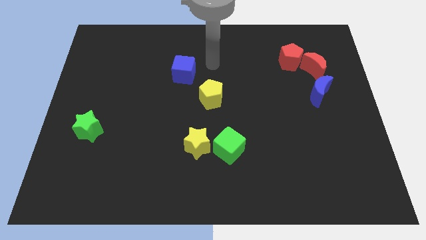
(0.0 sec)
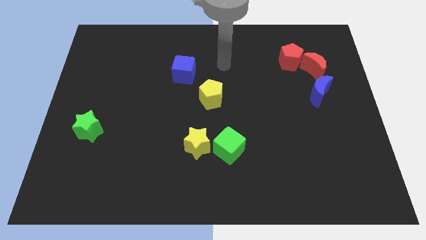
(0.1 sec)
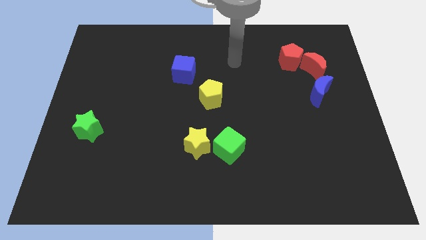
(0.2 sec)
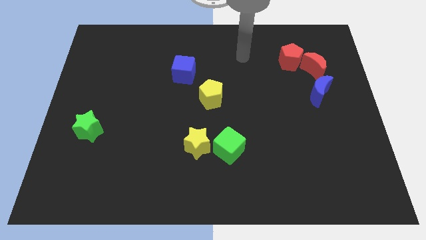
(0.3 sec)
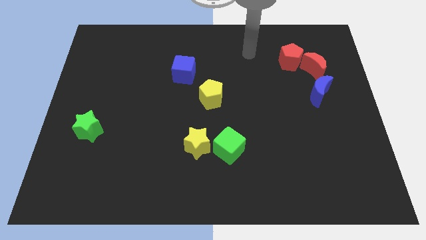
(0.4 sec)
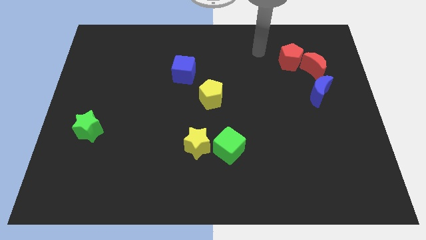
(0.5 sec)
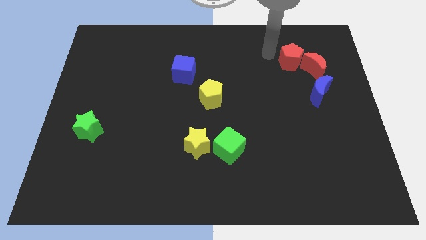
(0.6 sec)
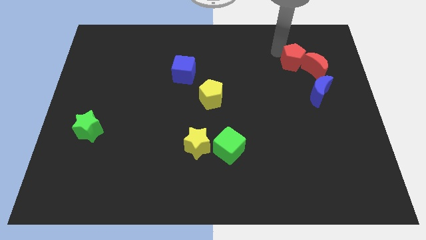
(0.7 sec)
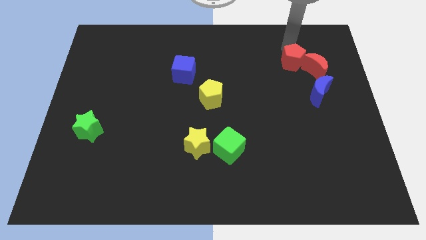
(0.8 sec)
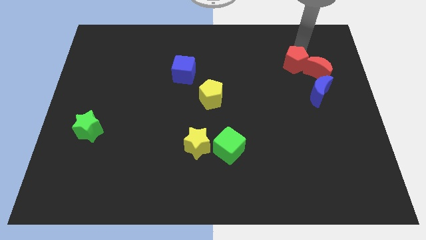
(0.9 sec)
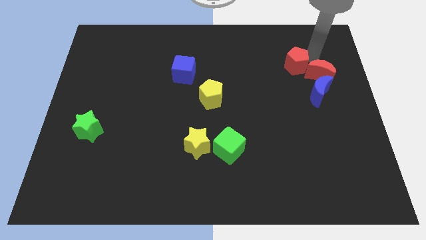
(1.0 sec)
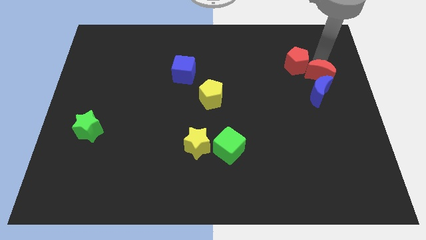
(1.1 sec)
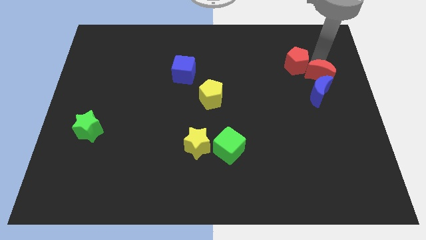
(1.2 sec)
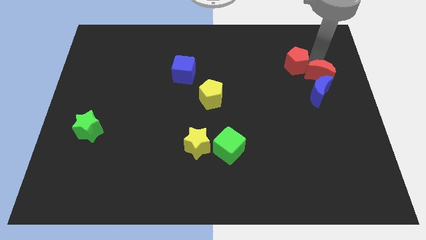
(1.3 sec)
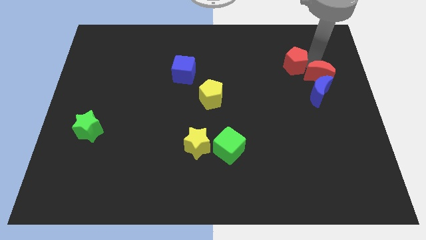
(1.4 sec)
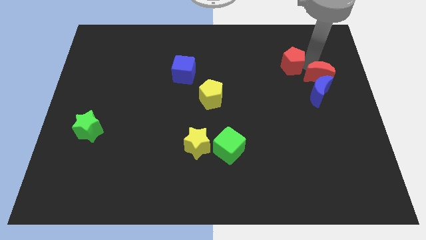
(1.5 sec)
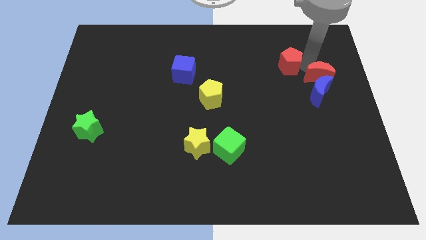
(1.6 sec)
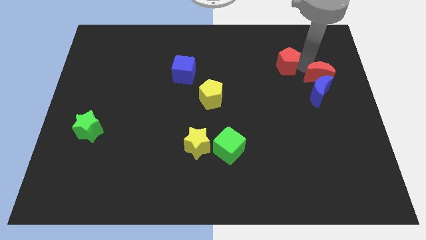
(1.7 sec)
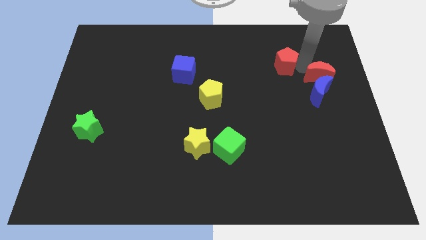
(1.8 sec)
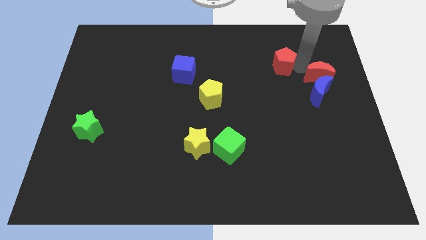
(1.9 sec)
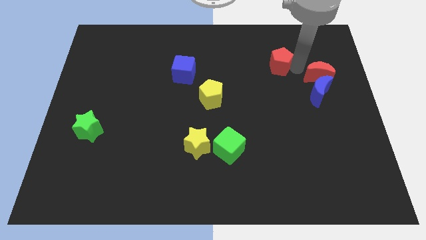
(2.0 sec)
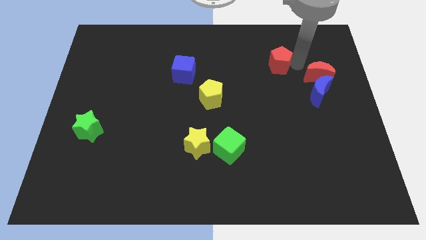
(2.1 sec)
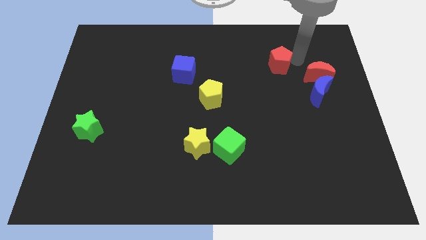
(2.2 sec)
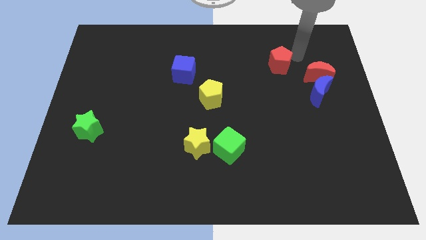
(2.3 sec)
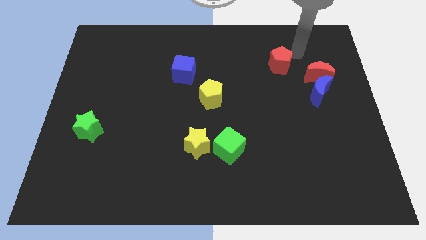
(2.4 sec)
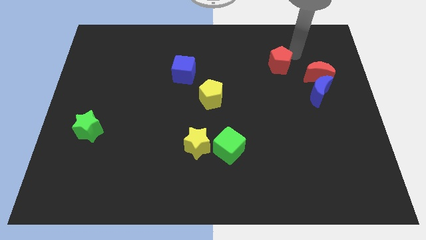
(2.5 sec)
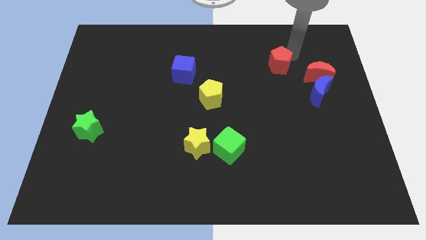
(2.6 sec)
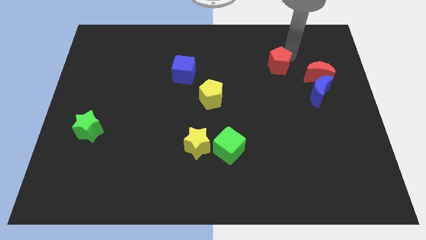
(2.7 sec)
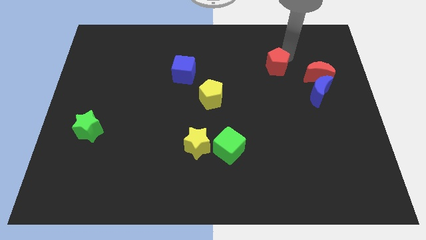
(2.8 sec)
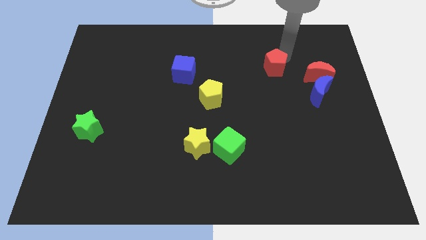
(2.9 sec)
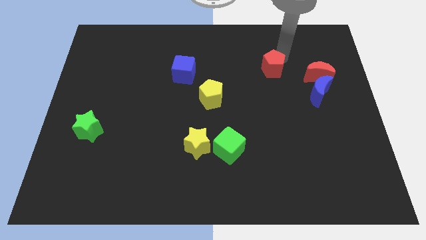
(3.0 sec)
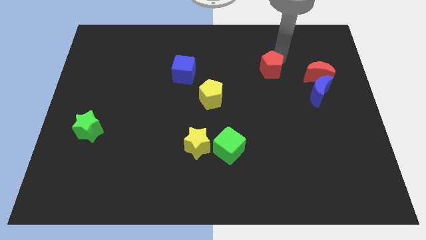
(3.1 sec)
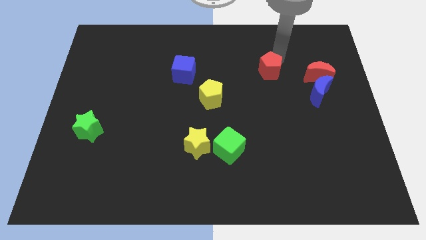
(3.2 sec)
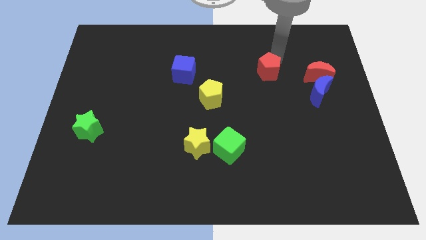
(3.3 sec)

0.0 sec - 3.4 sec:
slightly push the red pentagon down and to the left diagonally

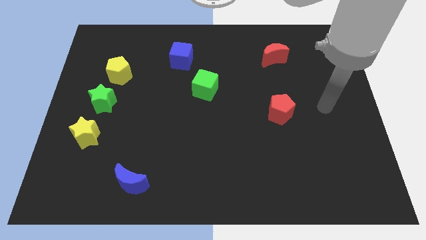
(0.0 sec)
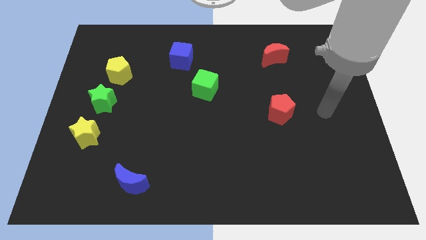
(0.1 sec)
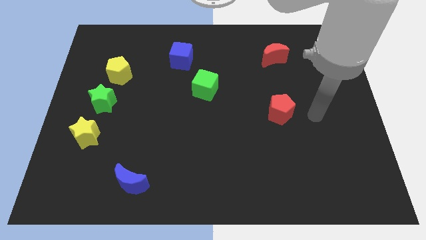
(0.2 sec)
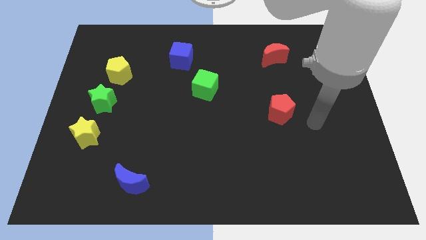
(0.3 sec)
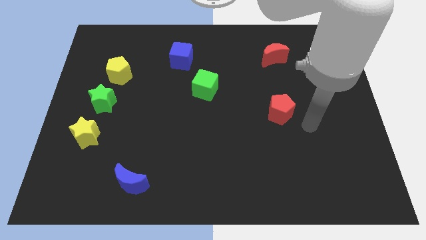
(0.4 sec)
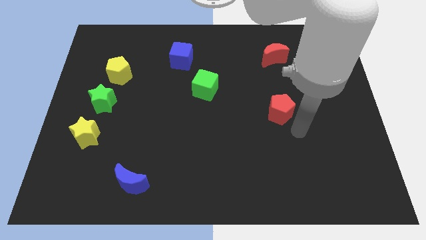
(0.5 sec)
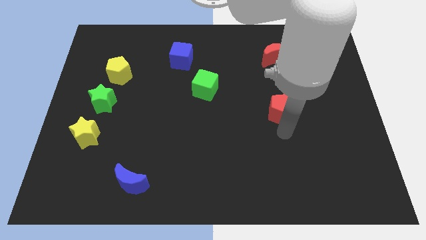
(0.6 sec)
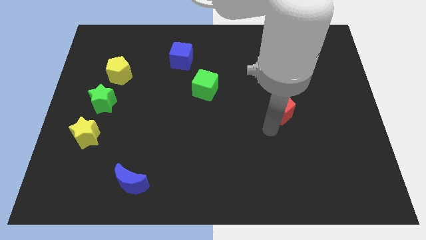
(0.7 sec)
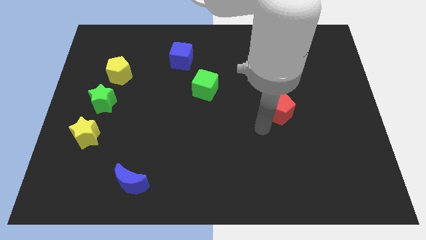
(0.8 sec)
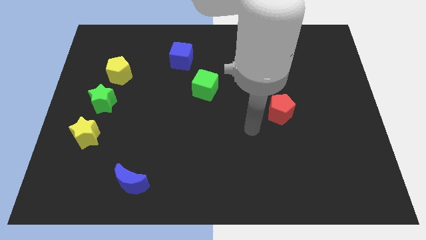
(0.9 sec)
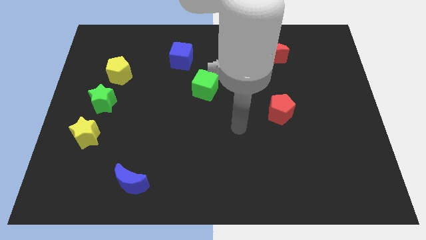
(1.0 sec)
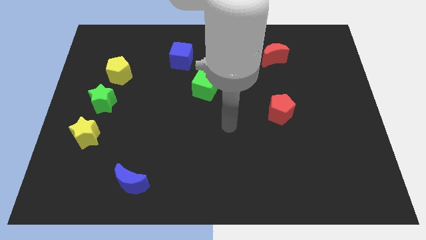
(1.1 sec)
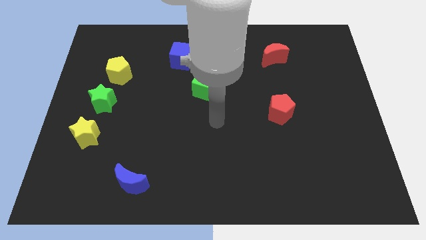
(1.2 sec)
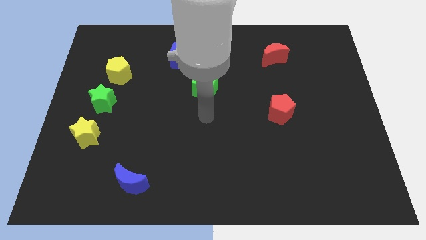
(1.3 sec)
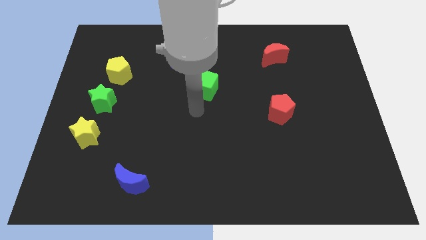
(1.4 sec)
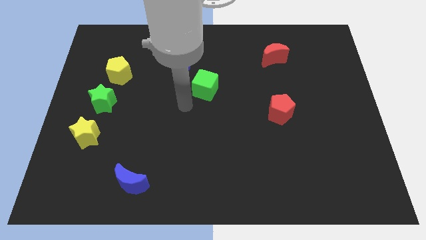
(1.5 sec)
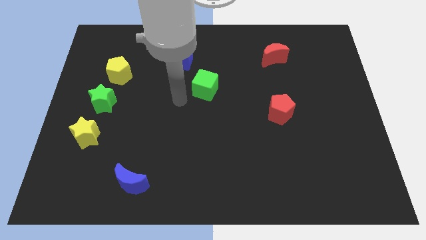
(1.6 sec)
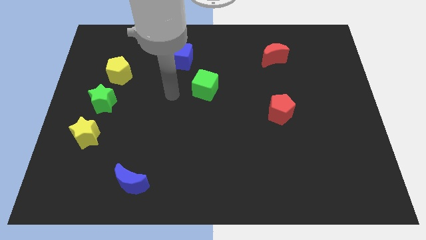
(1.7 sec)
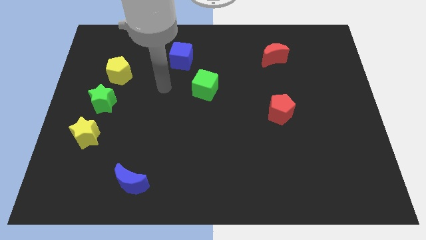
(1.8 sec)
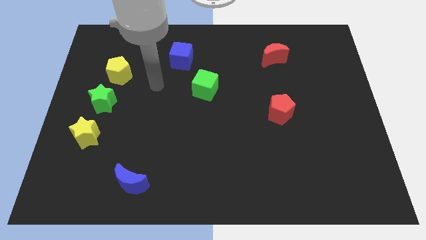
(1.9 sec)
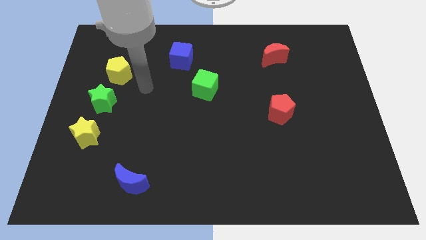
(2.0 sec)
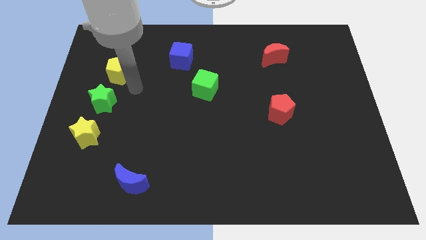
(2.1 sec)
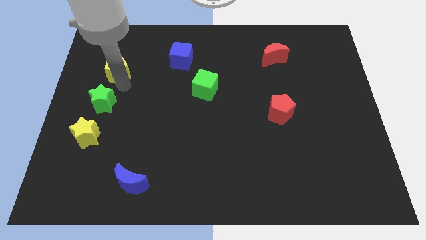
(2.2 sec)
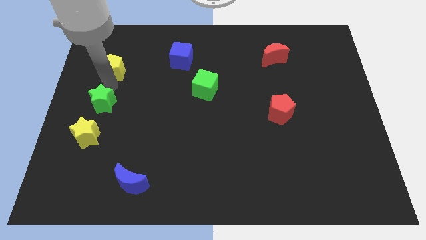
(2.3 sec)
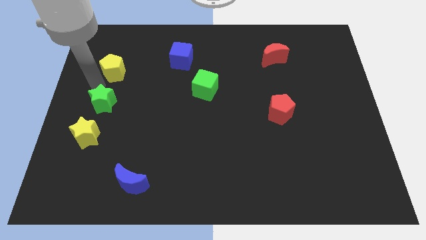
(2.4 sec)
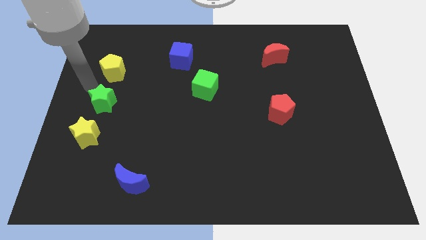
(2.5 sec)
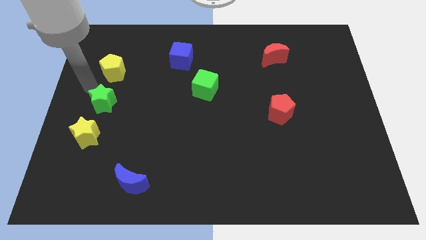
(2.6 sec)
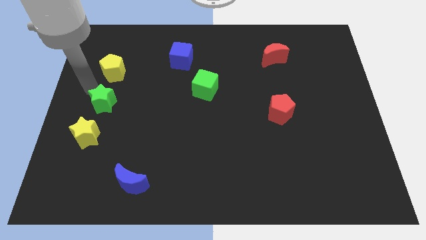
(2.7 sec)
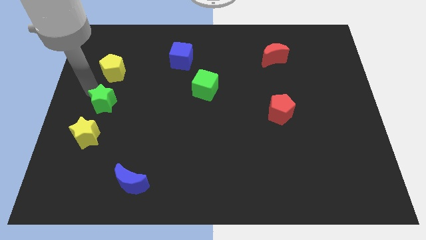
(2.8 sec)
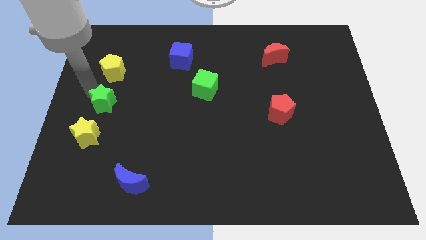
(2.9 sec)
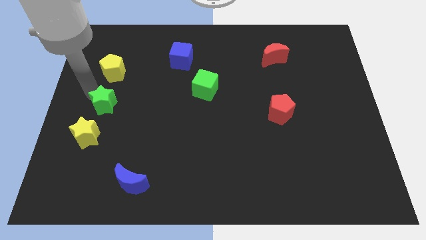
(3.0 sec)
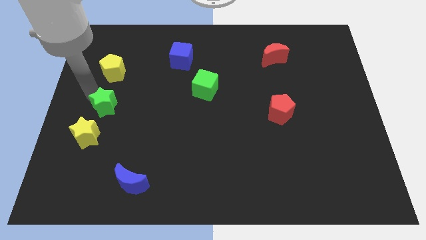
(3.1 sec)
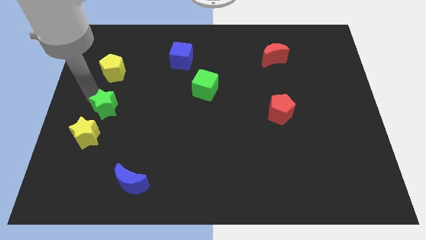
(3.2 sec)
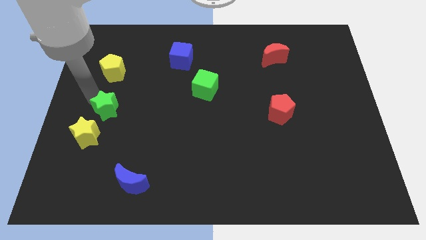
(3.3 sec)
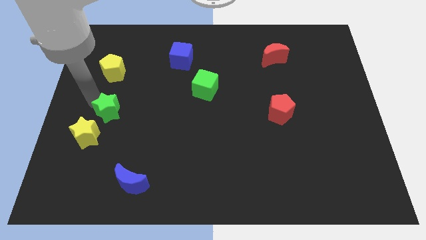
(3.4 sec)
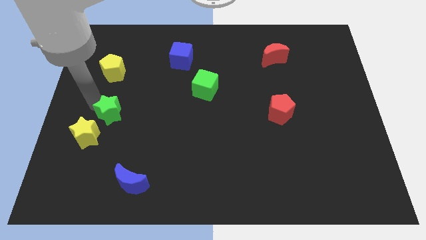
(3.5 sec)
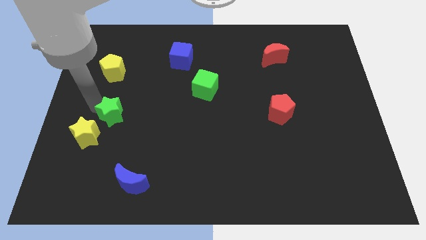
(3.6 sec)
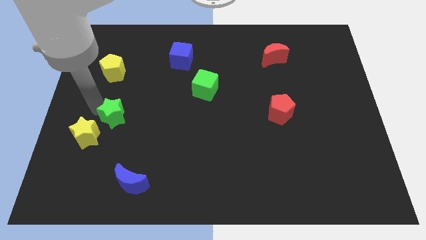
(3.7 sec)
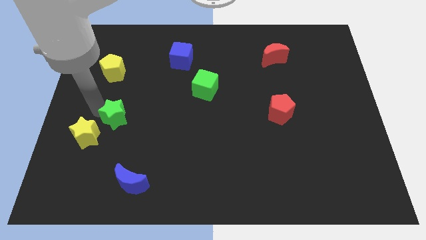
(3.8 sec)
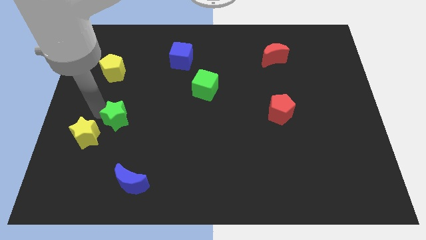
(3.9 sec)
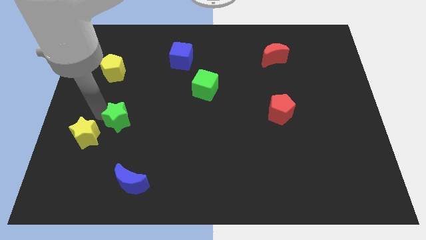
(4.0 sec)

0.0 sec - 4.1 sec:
slide the green star down and then right a little
